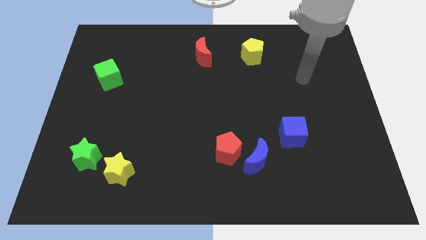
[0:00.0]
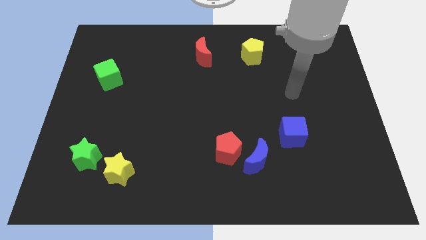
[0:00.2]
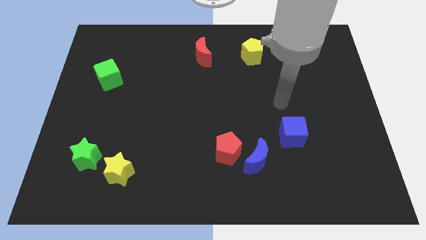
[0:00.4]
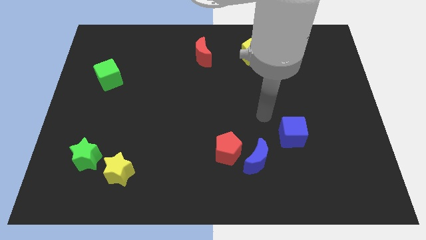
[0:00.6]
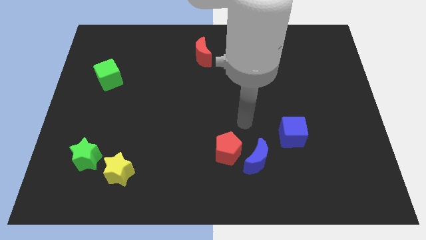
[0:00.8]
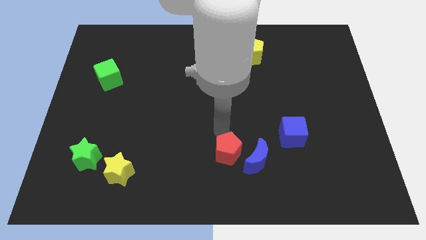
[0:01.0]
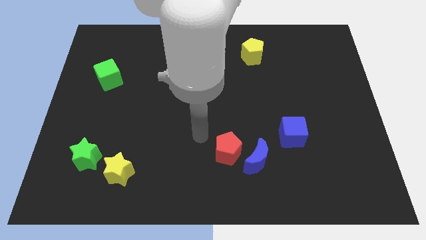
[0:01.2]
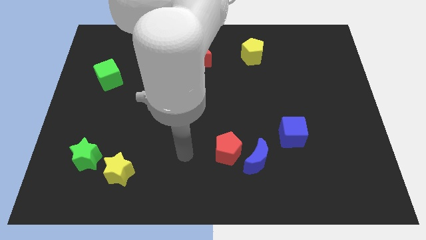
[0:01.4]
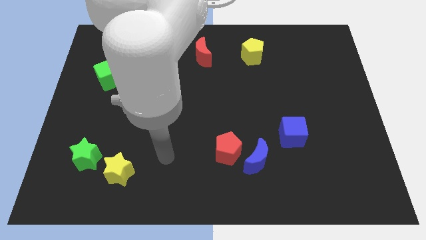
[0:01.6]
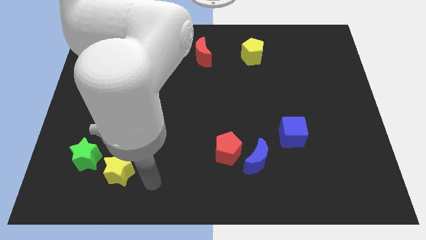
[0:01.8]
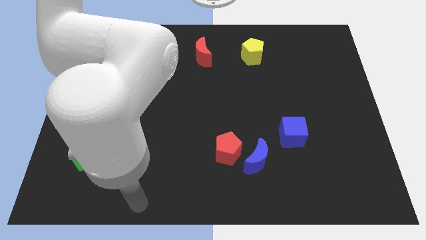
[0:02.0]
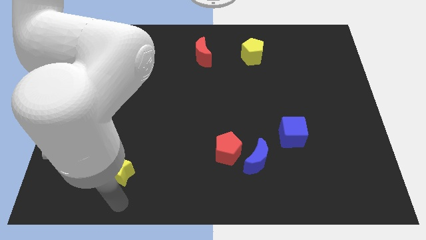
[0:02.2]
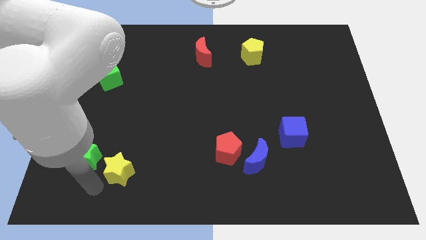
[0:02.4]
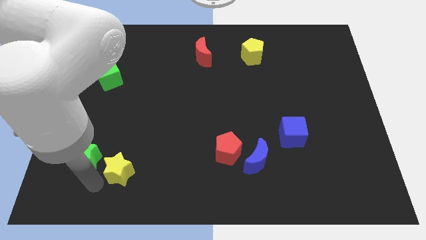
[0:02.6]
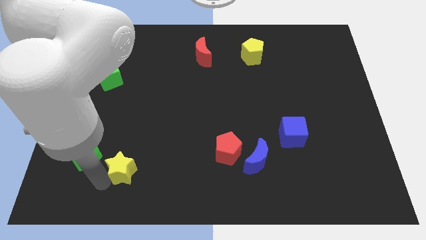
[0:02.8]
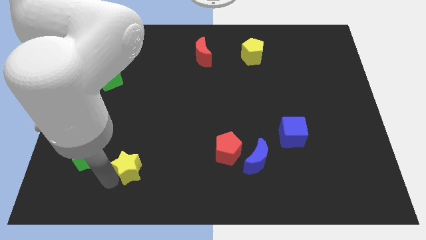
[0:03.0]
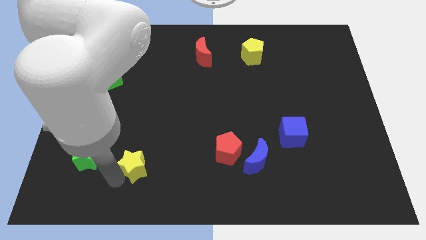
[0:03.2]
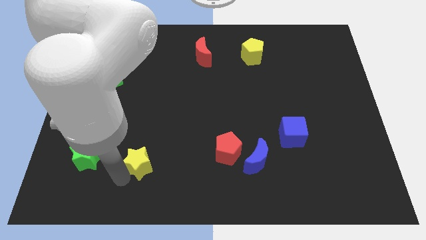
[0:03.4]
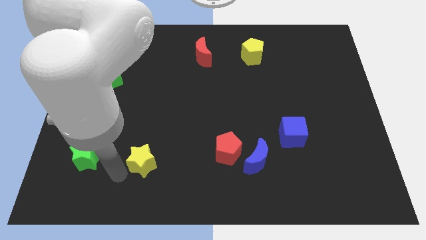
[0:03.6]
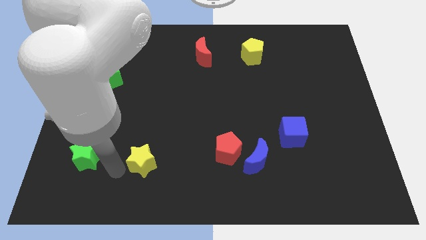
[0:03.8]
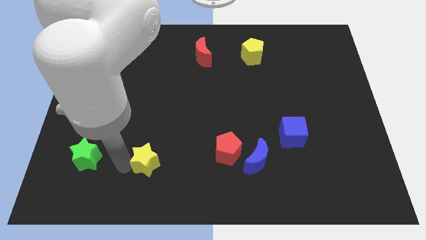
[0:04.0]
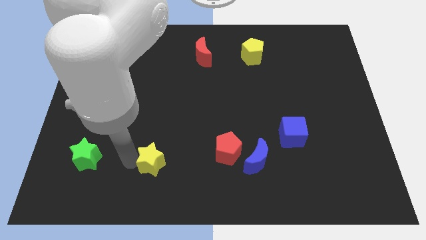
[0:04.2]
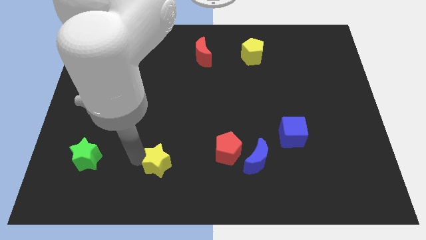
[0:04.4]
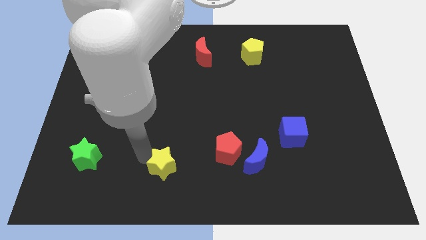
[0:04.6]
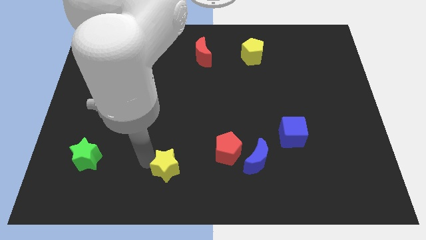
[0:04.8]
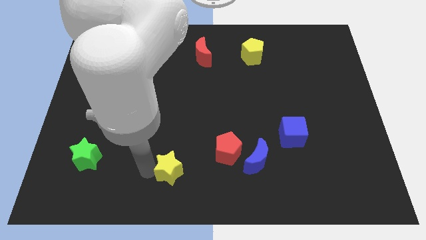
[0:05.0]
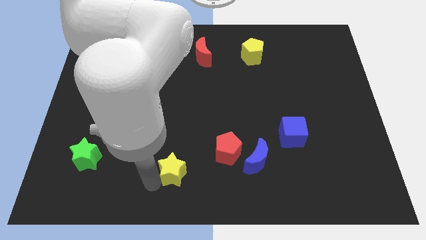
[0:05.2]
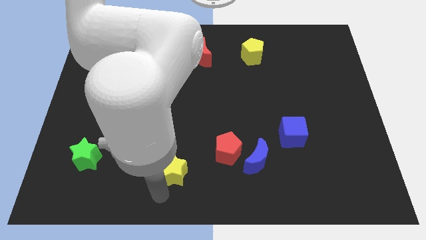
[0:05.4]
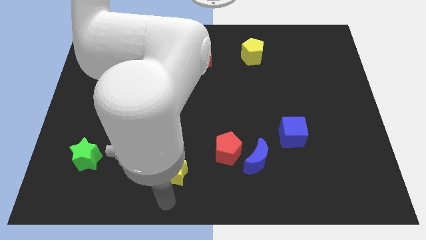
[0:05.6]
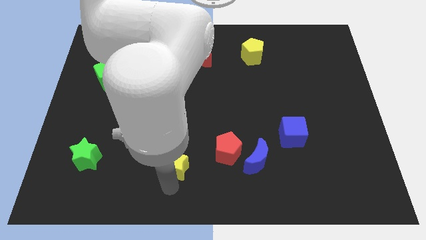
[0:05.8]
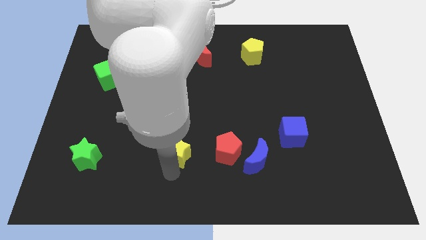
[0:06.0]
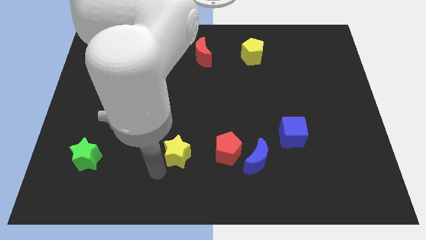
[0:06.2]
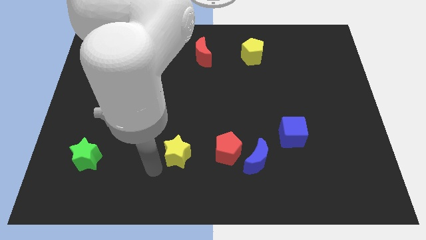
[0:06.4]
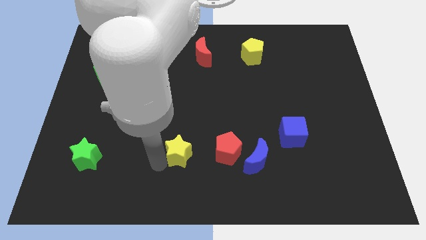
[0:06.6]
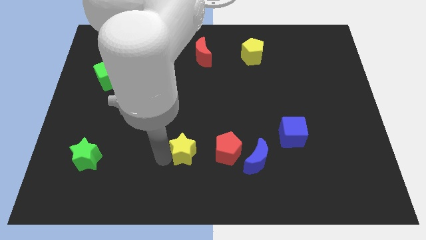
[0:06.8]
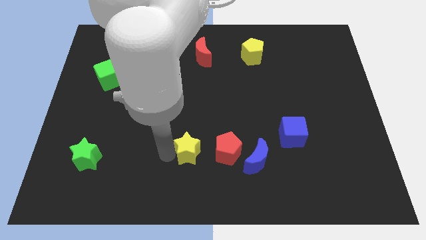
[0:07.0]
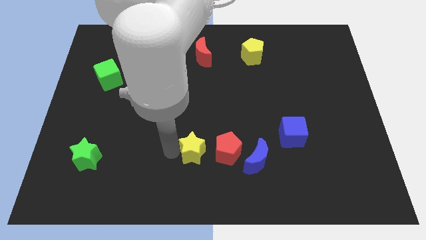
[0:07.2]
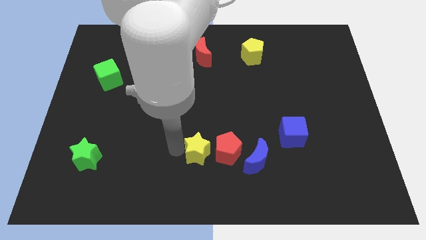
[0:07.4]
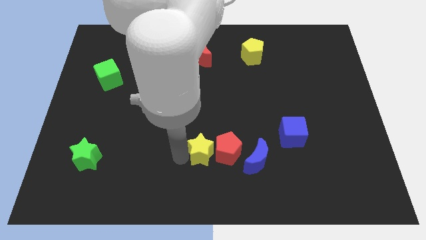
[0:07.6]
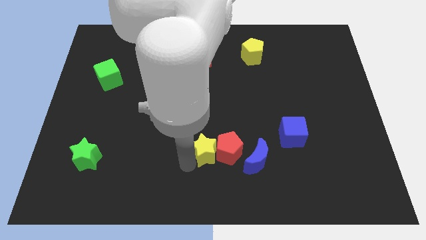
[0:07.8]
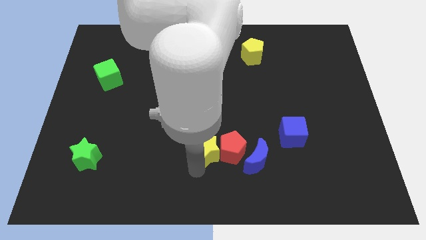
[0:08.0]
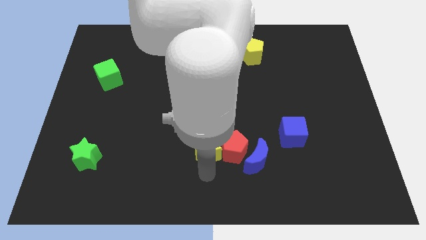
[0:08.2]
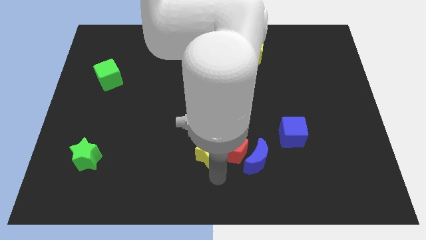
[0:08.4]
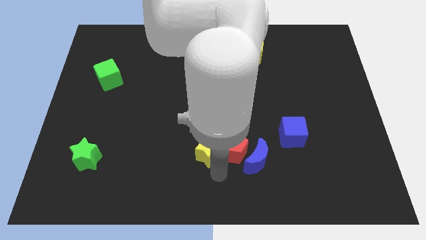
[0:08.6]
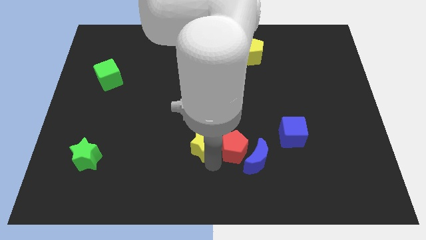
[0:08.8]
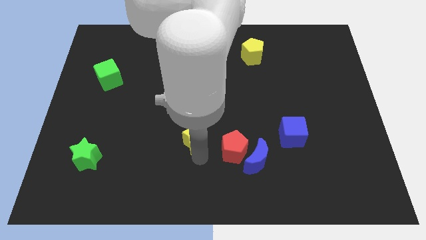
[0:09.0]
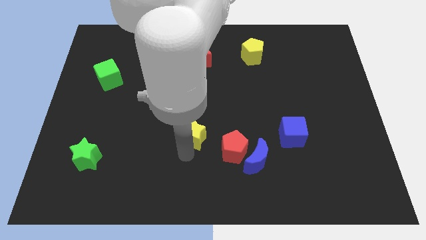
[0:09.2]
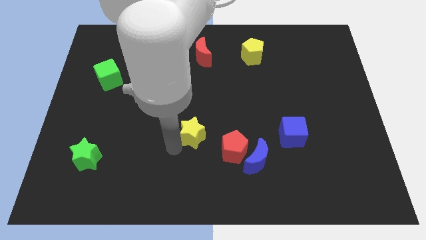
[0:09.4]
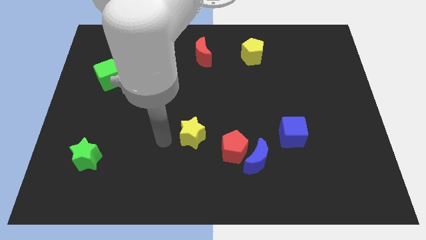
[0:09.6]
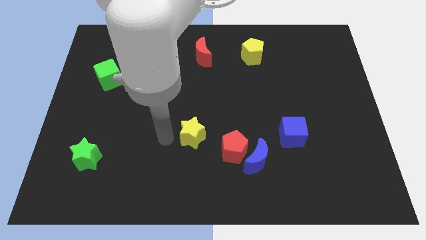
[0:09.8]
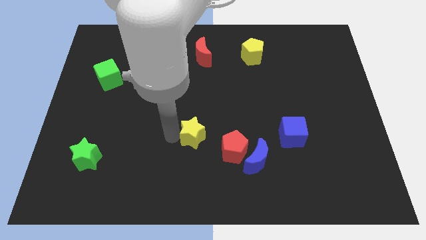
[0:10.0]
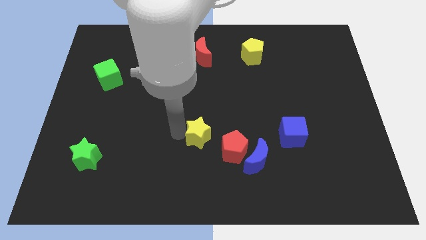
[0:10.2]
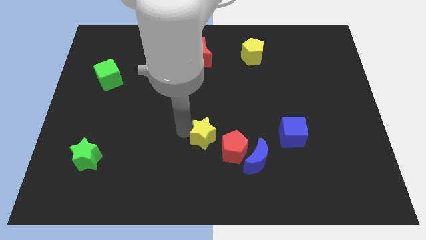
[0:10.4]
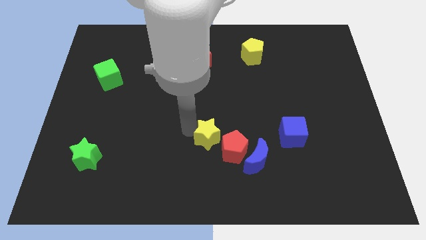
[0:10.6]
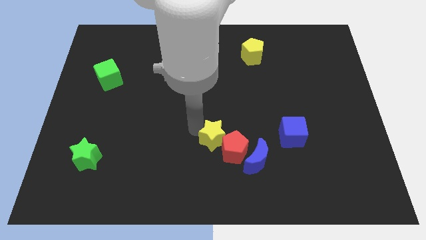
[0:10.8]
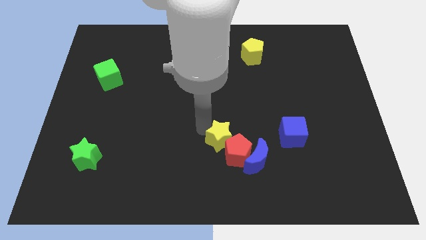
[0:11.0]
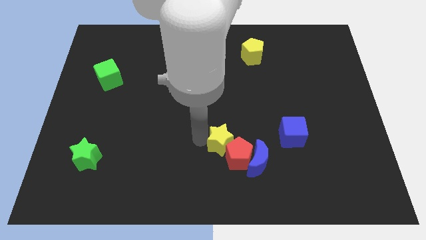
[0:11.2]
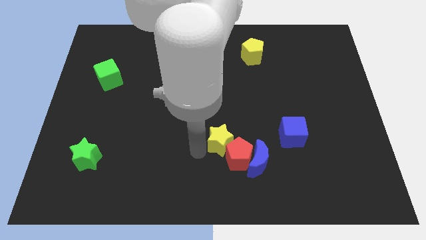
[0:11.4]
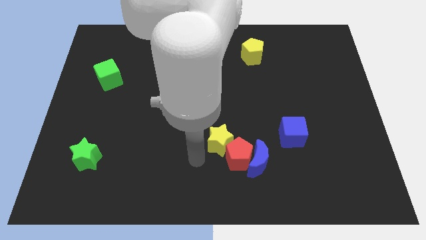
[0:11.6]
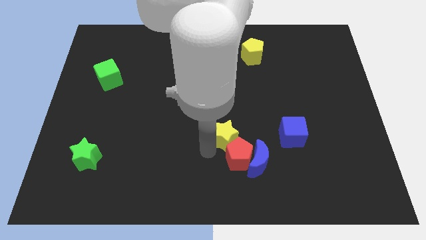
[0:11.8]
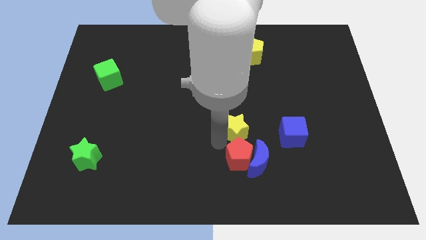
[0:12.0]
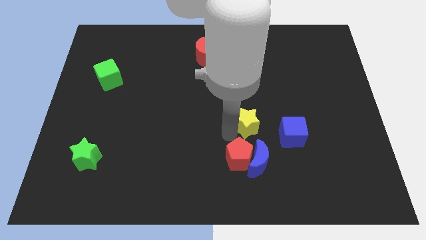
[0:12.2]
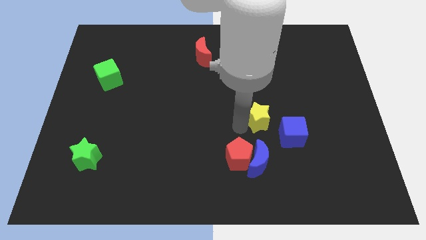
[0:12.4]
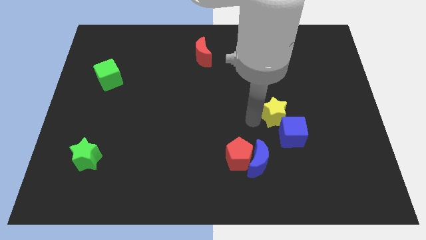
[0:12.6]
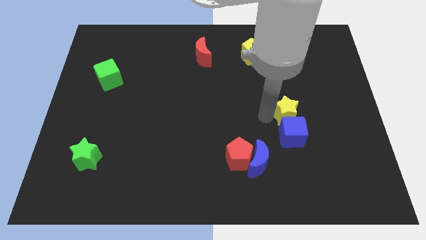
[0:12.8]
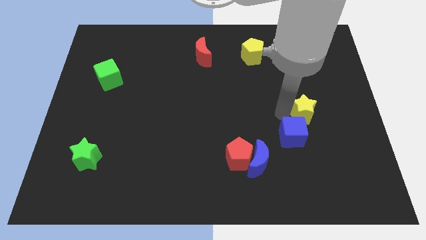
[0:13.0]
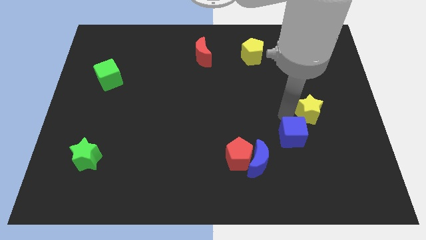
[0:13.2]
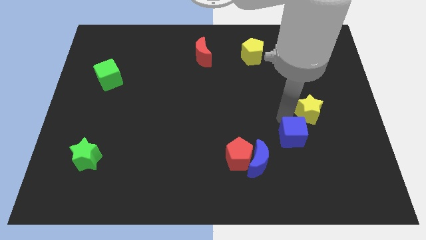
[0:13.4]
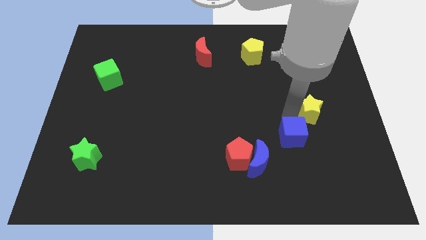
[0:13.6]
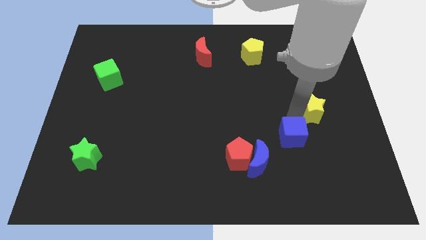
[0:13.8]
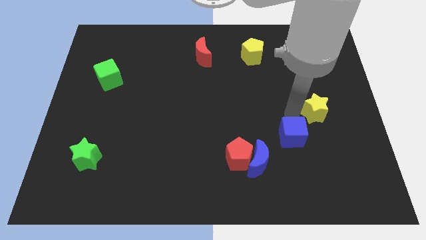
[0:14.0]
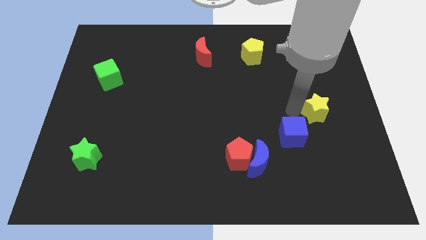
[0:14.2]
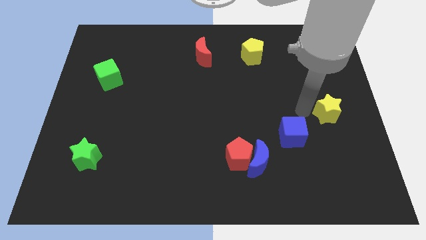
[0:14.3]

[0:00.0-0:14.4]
slide the yellow star to the right side
